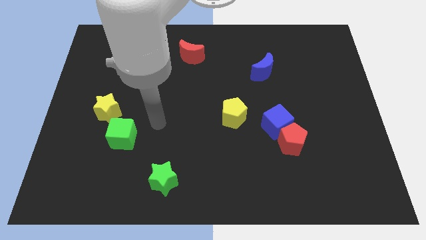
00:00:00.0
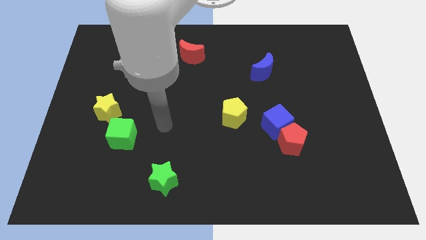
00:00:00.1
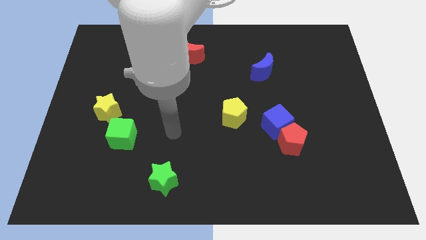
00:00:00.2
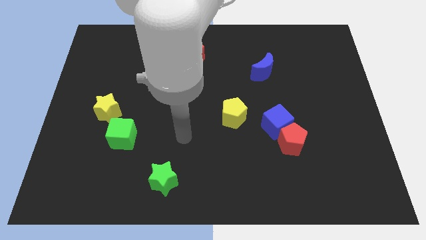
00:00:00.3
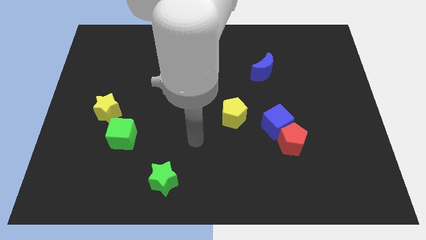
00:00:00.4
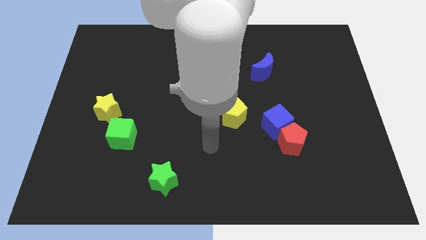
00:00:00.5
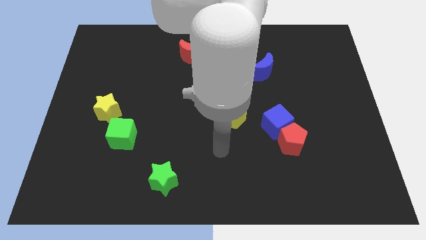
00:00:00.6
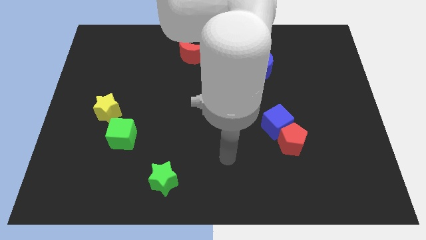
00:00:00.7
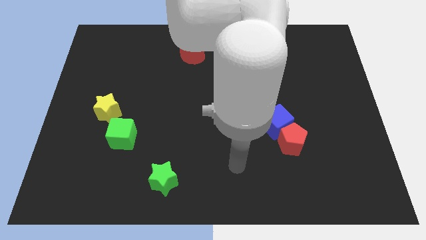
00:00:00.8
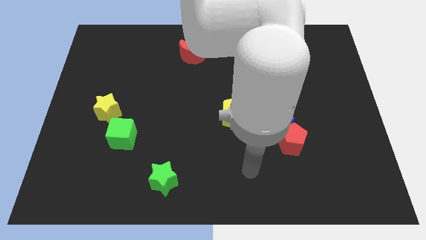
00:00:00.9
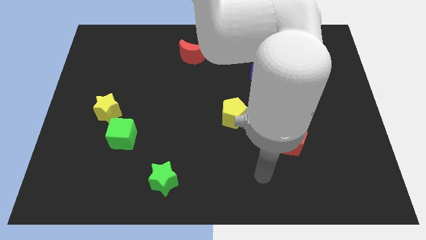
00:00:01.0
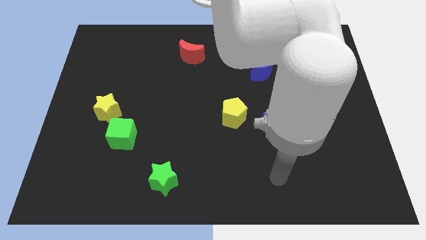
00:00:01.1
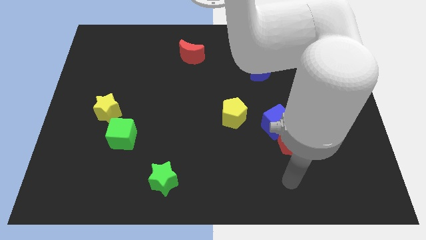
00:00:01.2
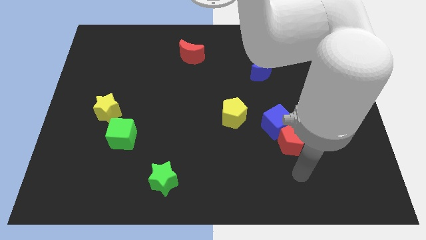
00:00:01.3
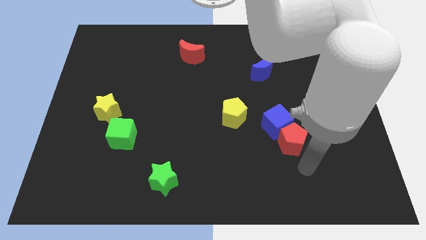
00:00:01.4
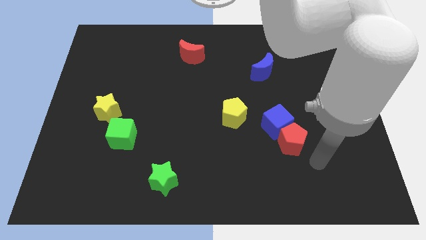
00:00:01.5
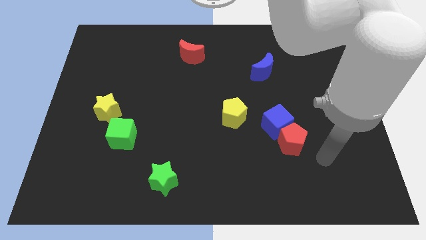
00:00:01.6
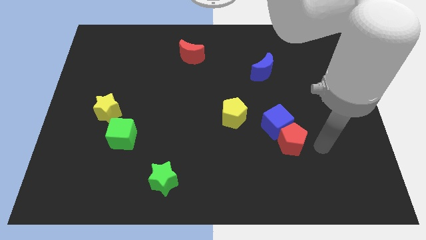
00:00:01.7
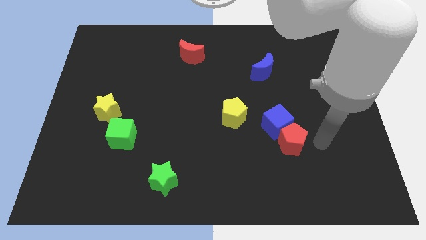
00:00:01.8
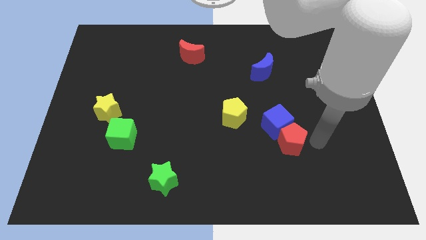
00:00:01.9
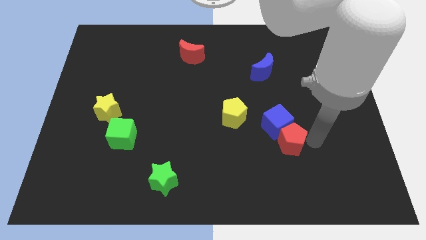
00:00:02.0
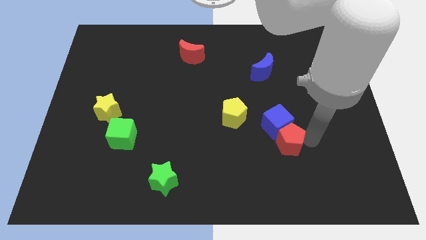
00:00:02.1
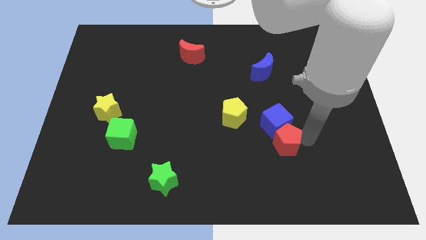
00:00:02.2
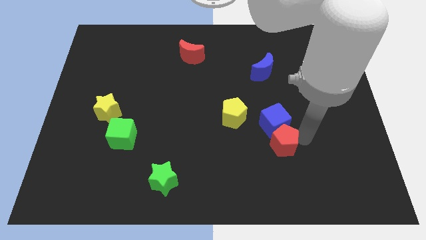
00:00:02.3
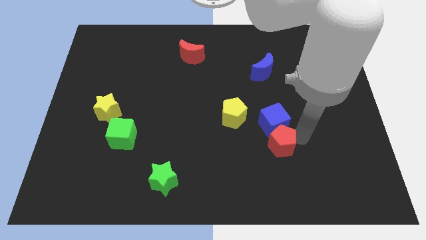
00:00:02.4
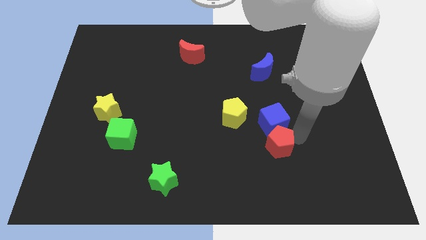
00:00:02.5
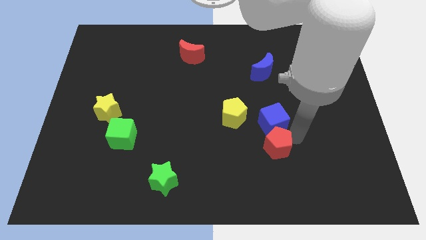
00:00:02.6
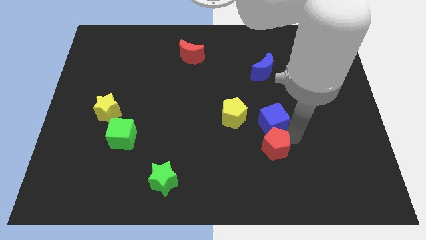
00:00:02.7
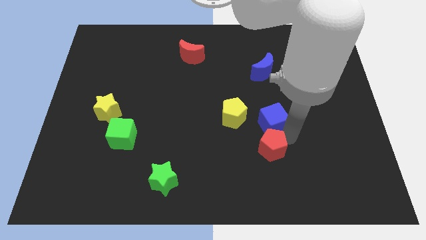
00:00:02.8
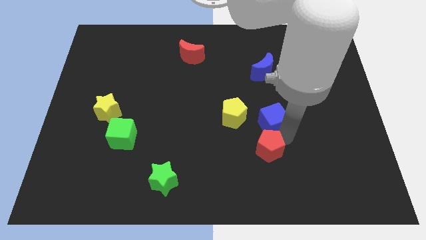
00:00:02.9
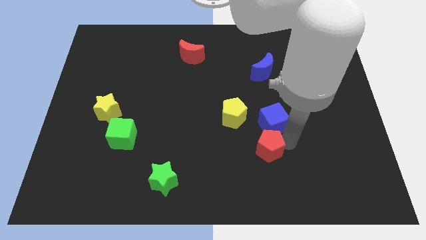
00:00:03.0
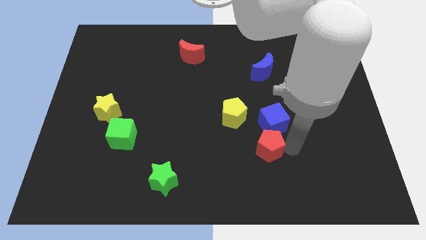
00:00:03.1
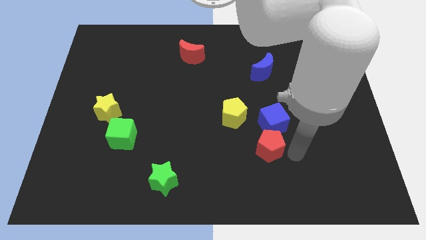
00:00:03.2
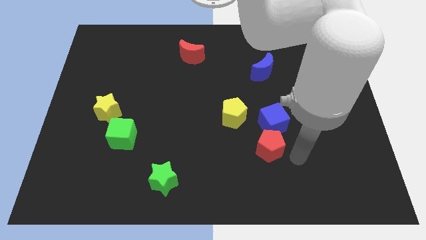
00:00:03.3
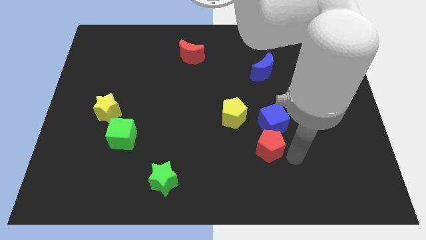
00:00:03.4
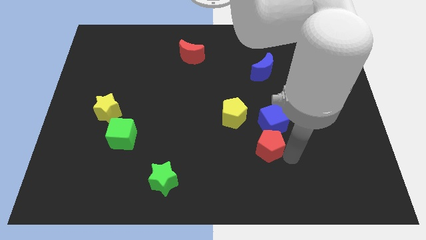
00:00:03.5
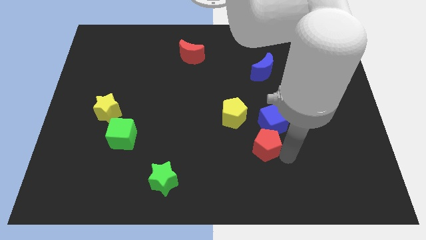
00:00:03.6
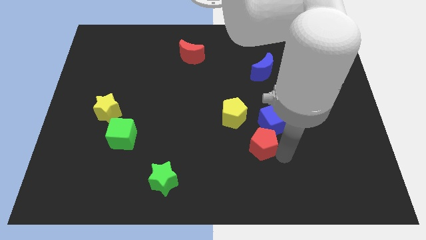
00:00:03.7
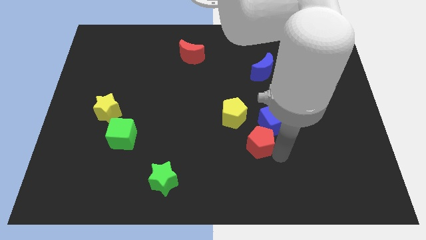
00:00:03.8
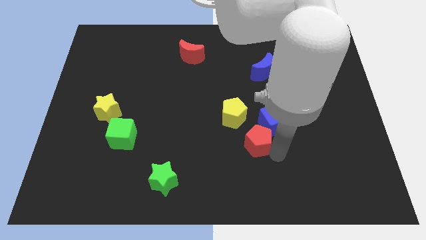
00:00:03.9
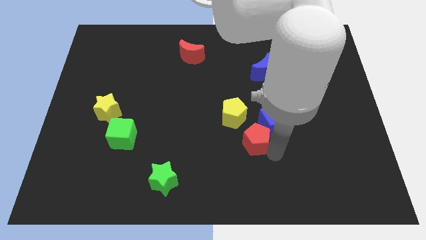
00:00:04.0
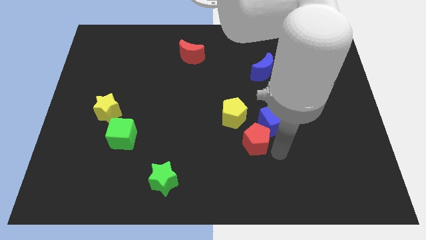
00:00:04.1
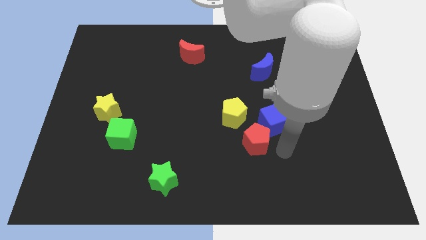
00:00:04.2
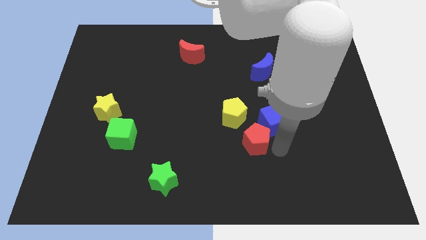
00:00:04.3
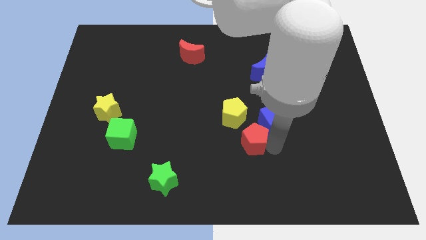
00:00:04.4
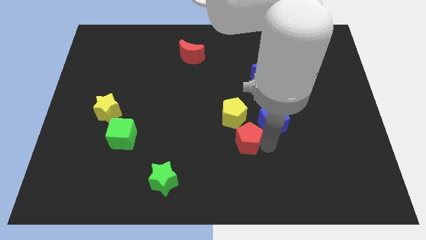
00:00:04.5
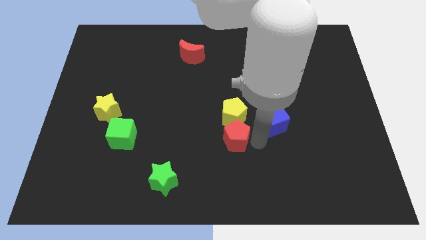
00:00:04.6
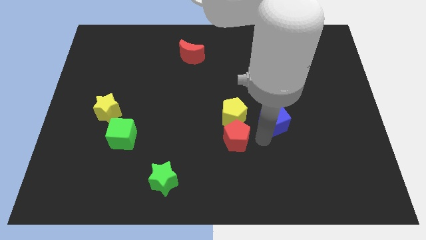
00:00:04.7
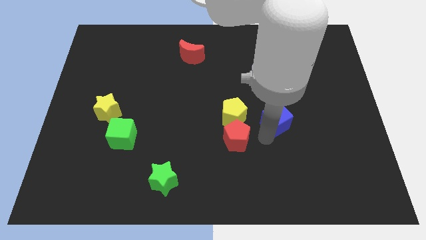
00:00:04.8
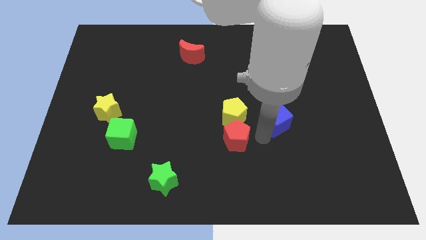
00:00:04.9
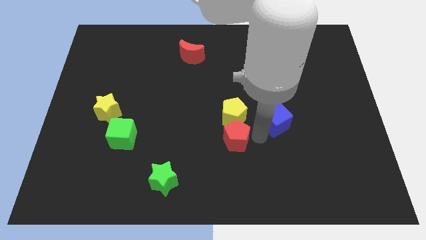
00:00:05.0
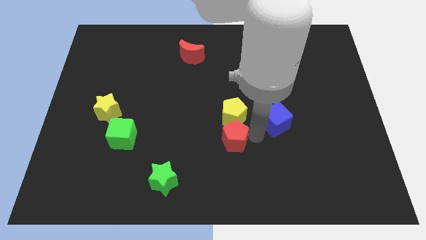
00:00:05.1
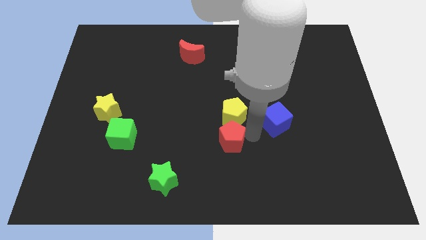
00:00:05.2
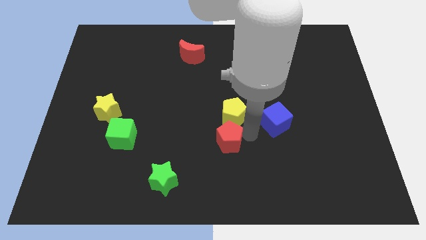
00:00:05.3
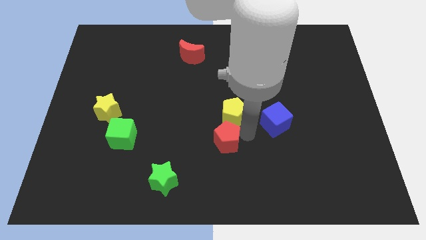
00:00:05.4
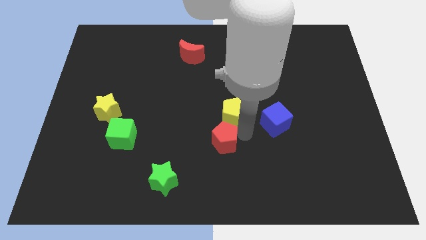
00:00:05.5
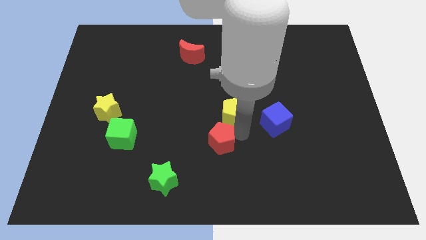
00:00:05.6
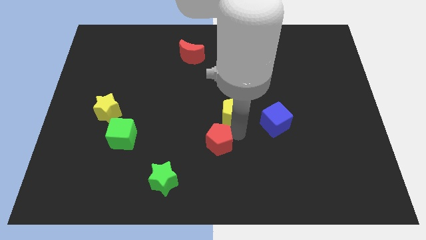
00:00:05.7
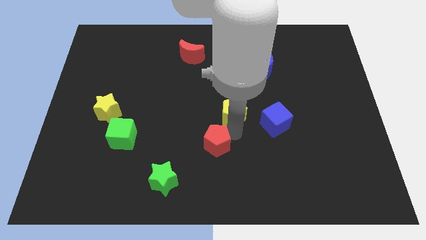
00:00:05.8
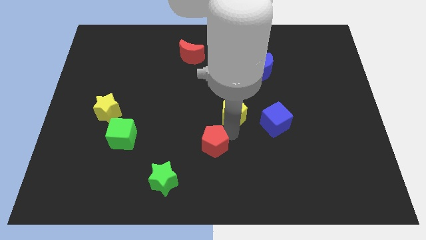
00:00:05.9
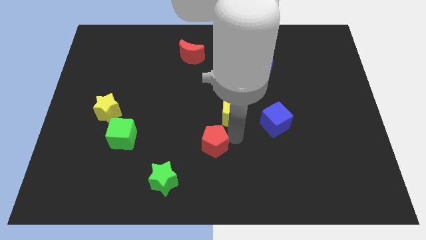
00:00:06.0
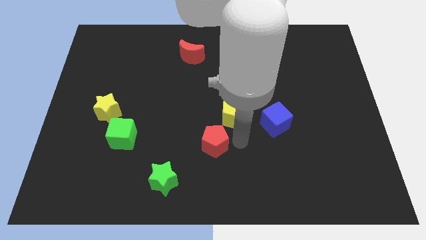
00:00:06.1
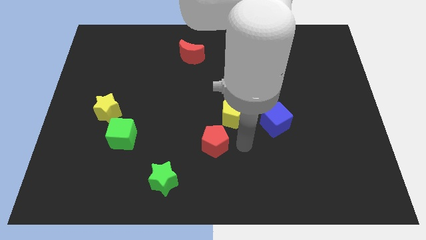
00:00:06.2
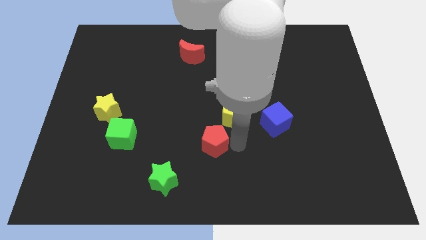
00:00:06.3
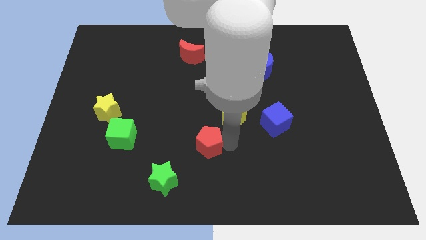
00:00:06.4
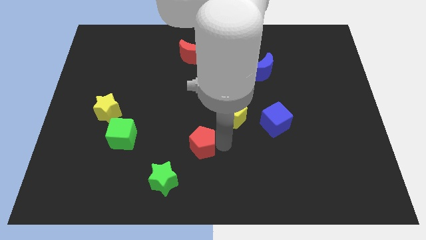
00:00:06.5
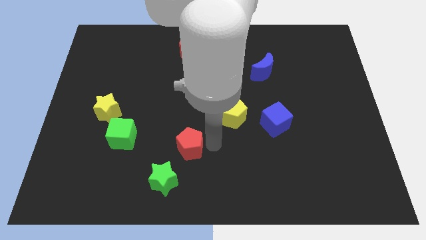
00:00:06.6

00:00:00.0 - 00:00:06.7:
push the red pentagon left

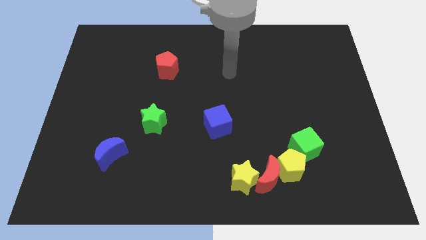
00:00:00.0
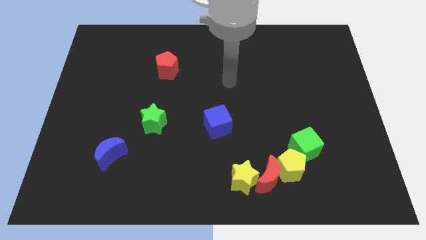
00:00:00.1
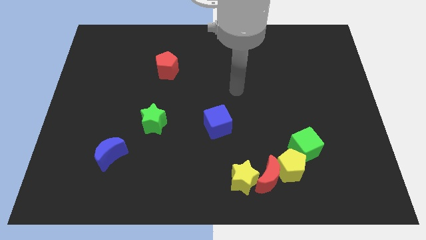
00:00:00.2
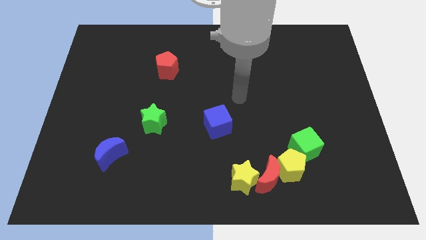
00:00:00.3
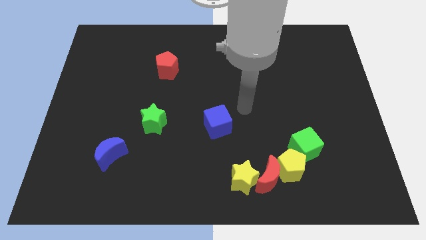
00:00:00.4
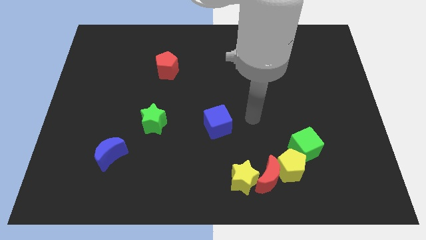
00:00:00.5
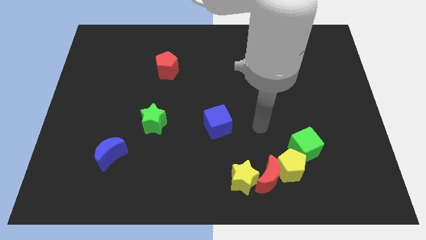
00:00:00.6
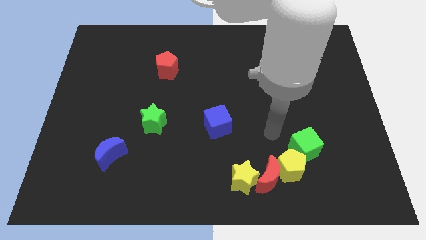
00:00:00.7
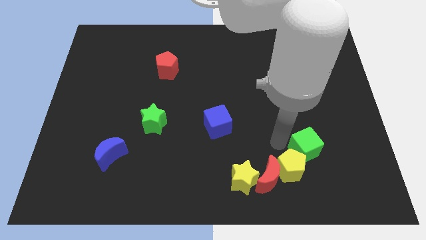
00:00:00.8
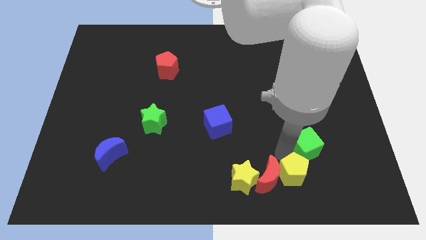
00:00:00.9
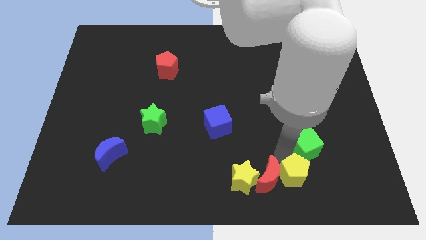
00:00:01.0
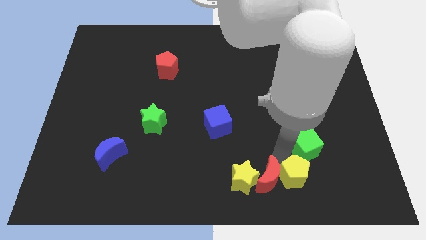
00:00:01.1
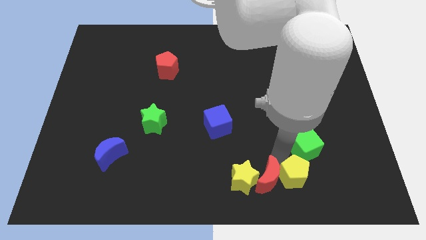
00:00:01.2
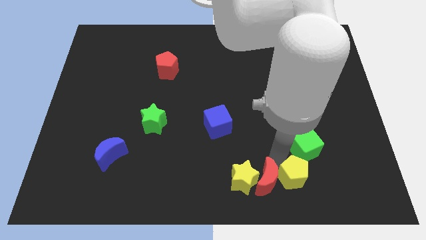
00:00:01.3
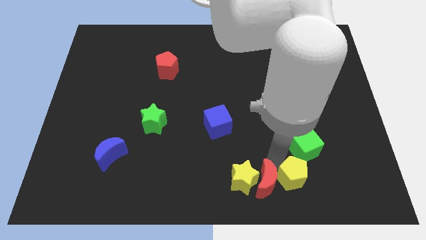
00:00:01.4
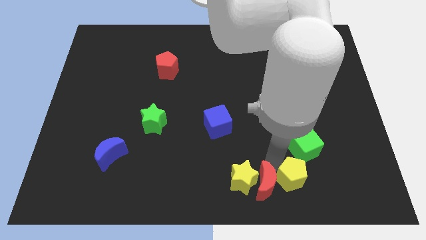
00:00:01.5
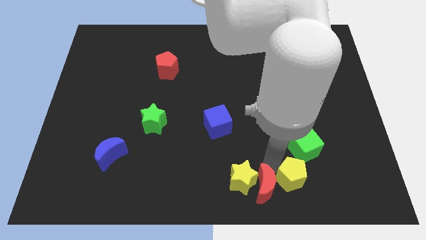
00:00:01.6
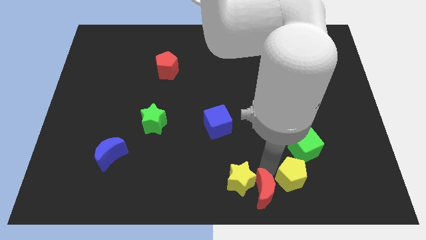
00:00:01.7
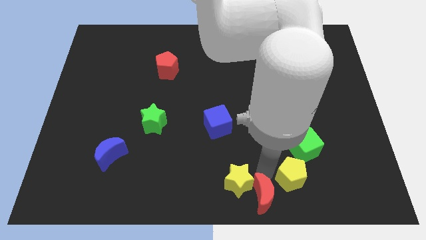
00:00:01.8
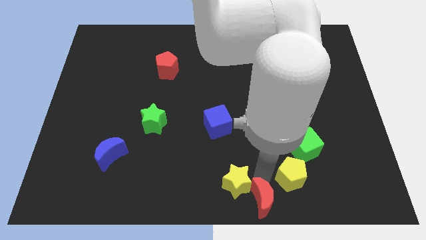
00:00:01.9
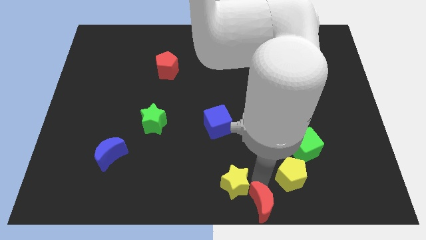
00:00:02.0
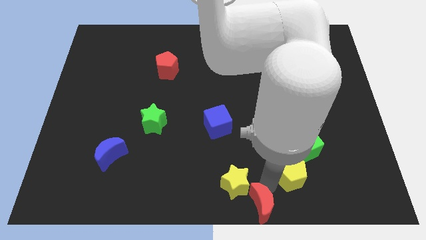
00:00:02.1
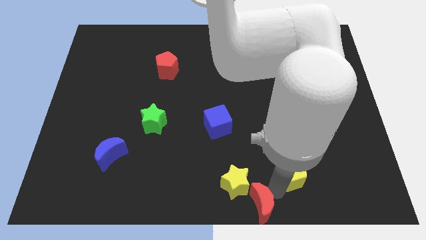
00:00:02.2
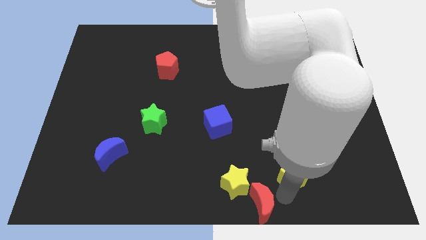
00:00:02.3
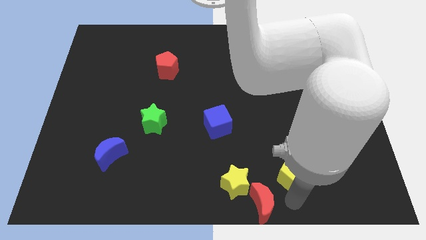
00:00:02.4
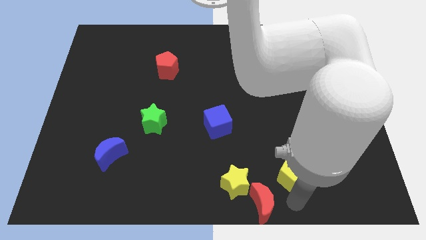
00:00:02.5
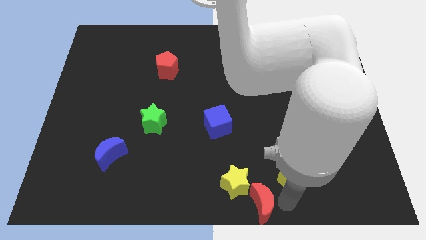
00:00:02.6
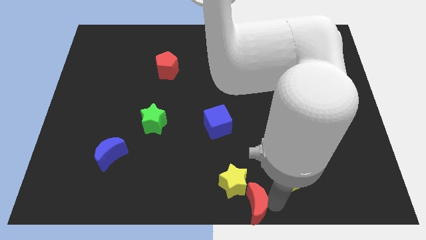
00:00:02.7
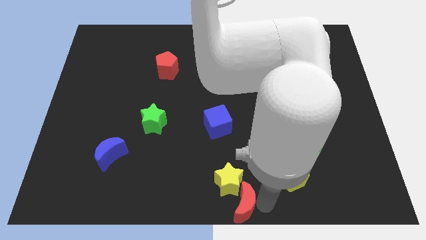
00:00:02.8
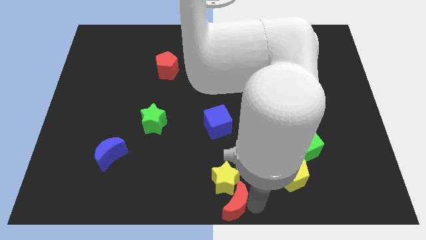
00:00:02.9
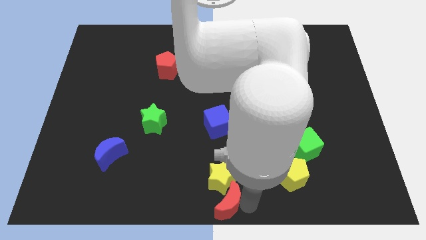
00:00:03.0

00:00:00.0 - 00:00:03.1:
slightly slide the red moon to the left
